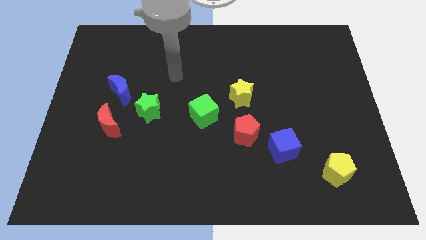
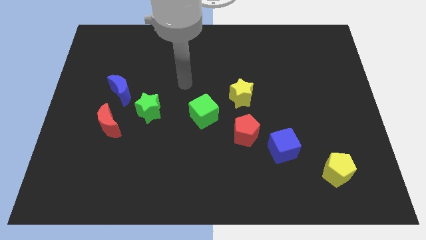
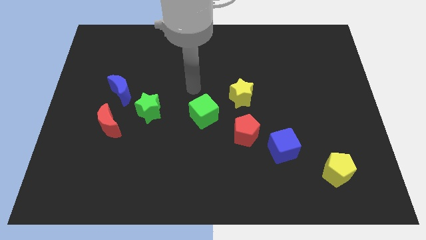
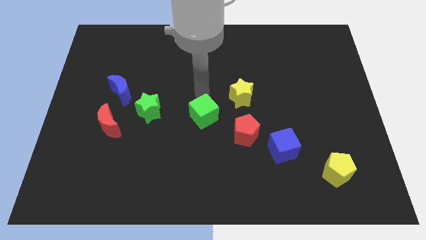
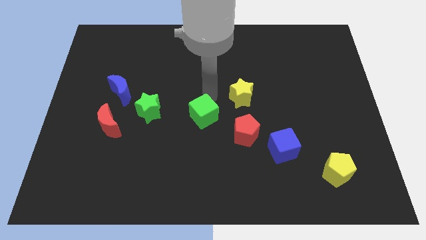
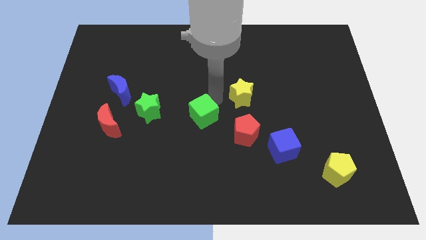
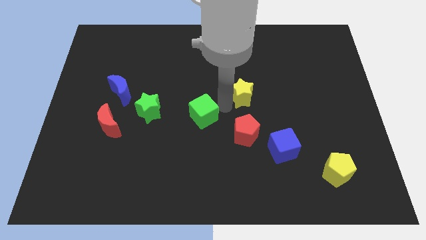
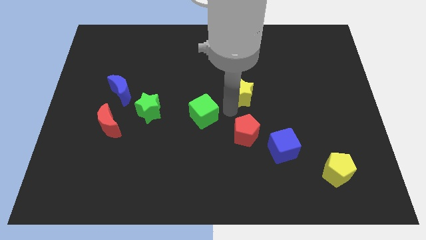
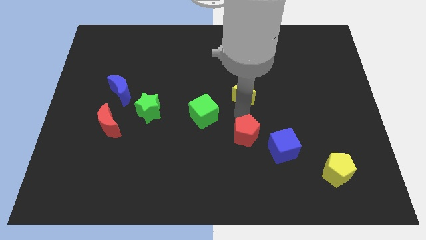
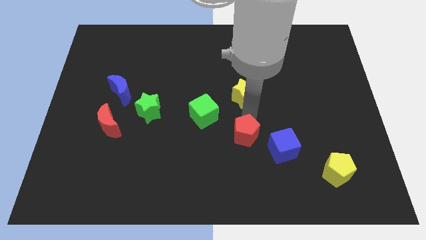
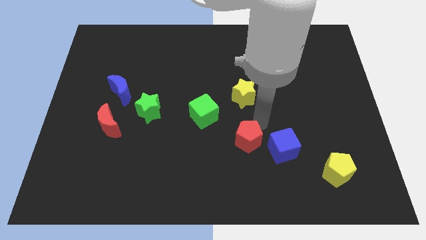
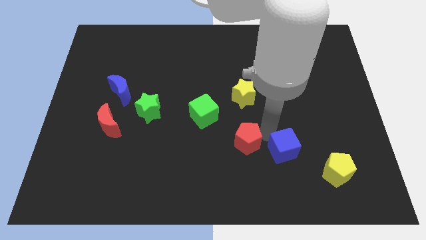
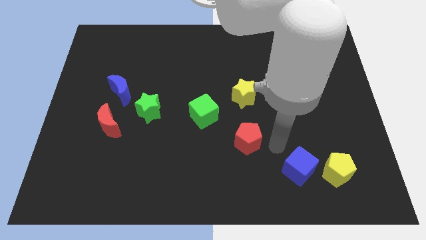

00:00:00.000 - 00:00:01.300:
move the red pentagon away from the blue cube

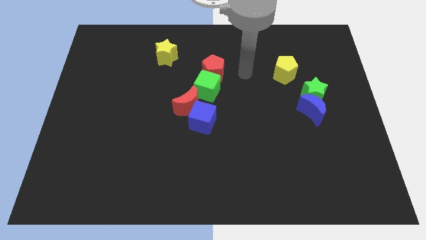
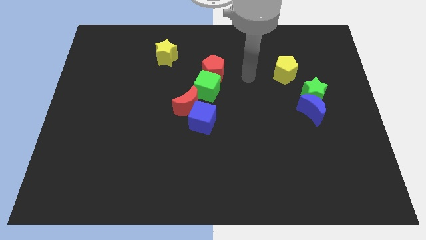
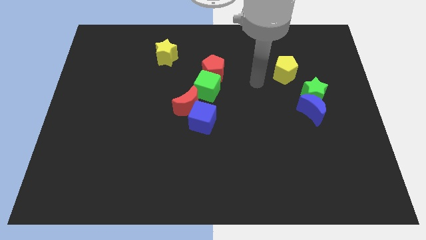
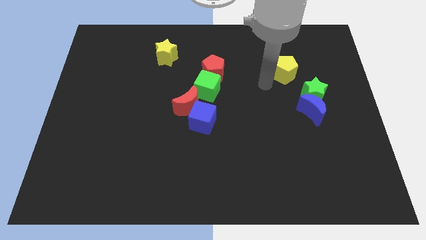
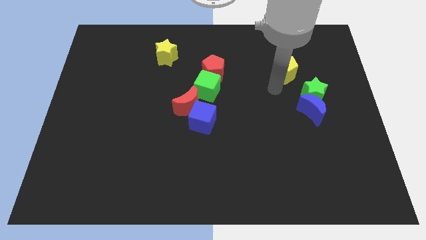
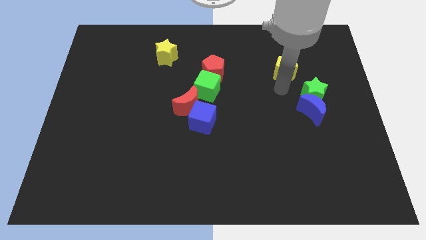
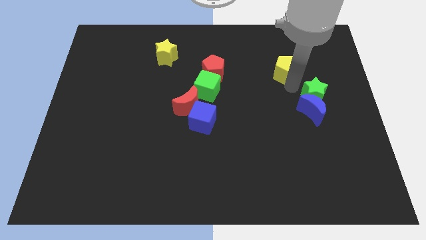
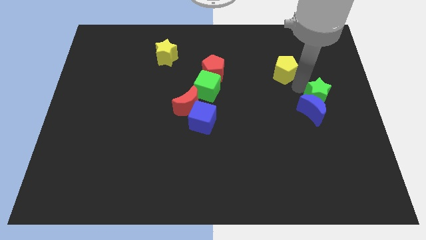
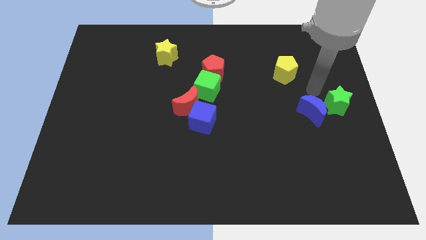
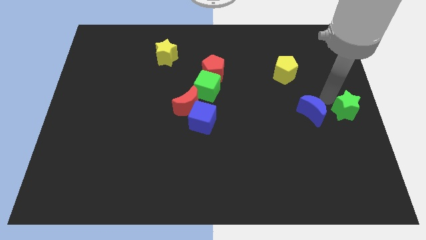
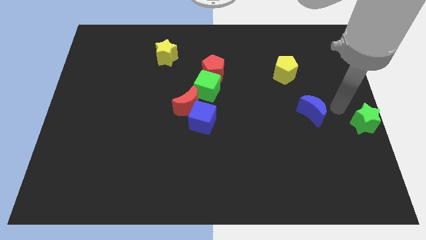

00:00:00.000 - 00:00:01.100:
separate the blue moon from the green star

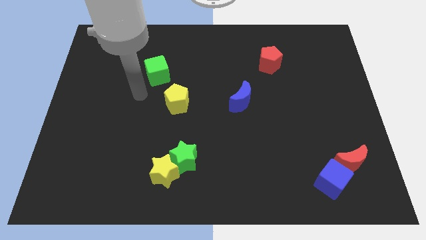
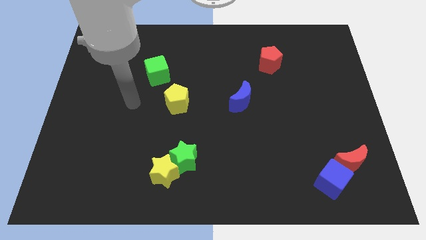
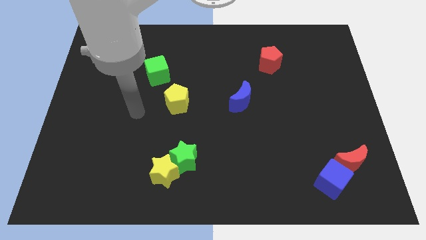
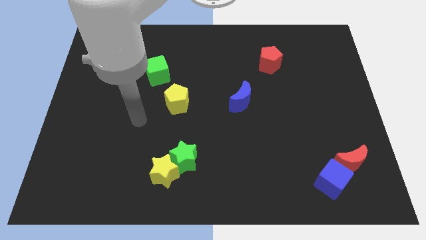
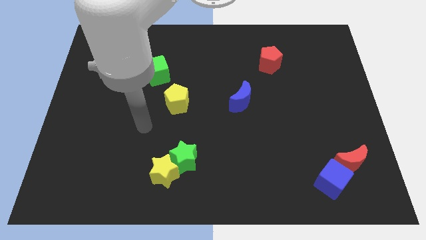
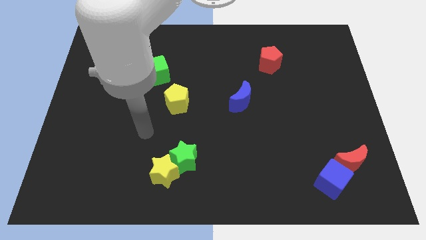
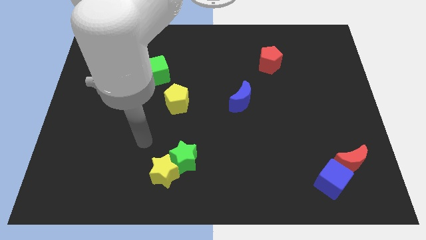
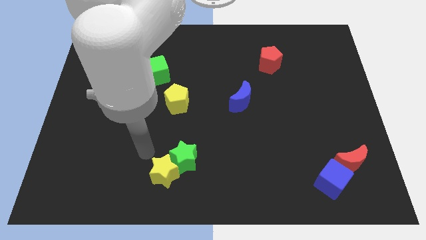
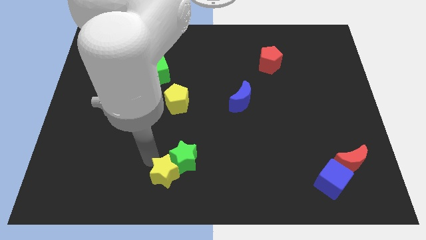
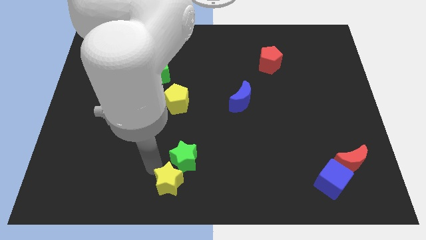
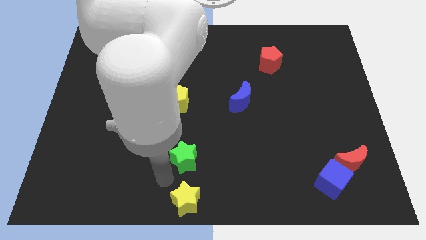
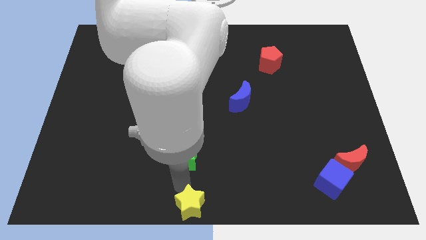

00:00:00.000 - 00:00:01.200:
move the green star away from the yellow star

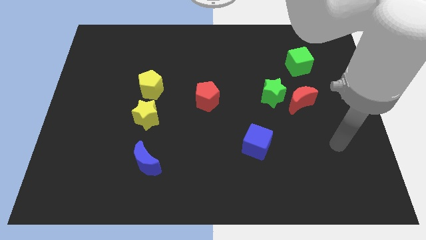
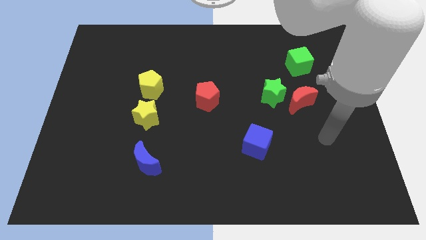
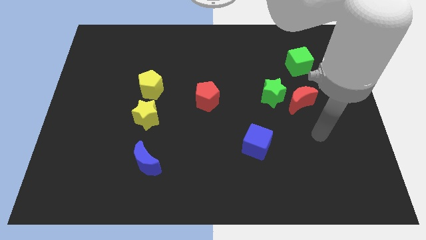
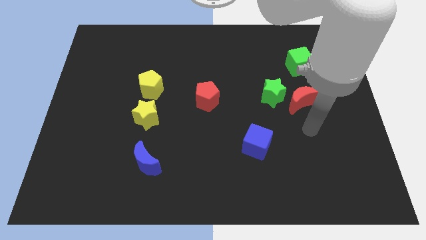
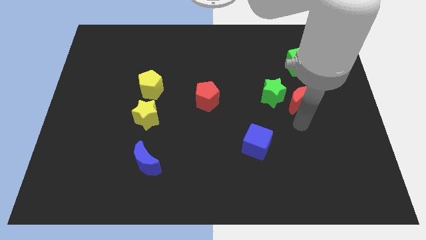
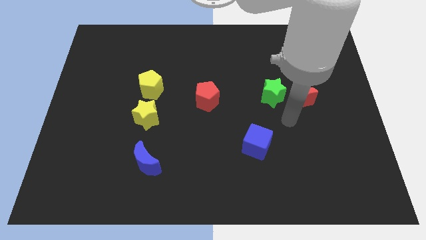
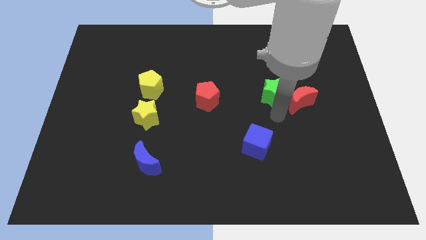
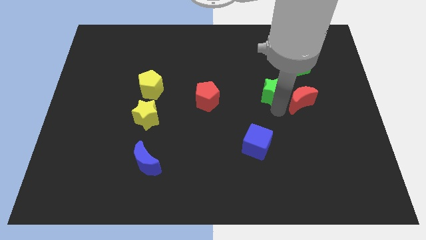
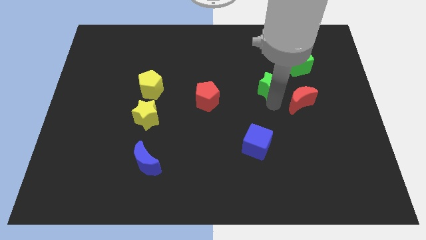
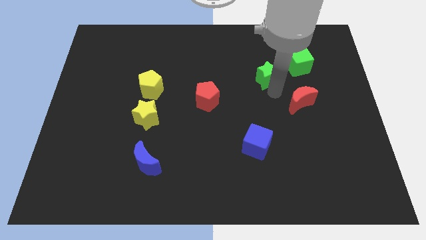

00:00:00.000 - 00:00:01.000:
move the red moon away from the green star

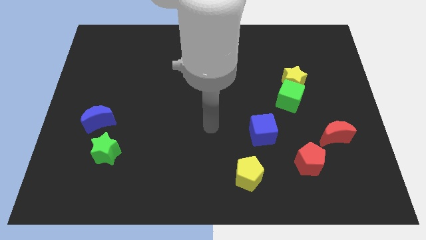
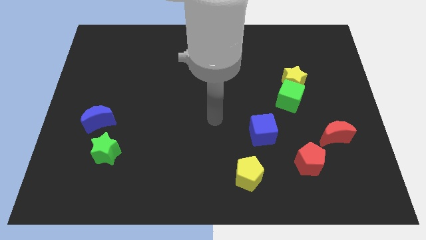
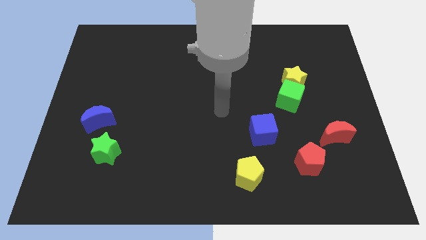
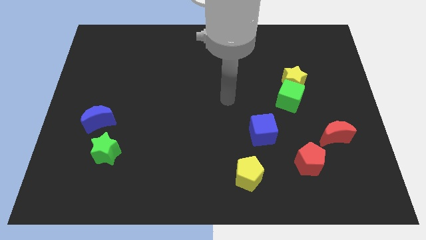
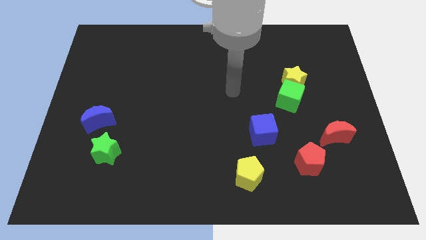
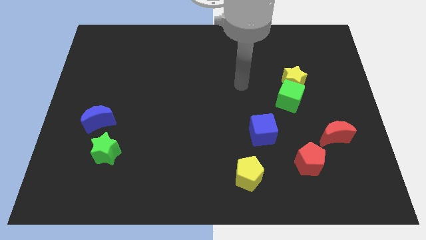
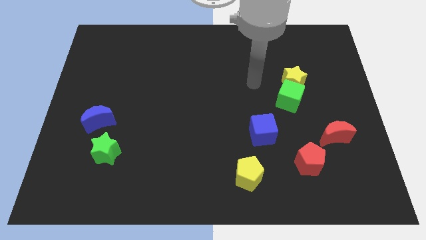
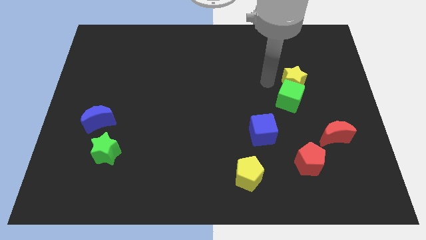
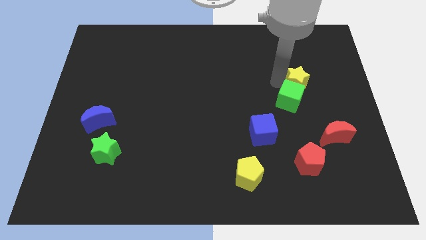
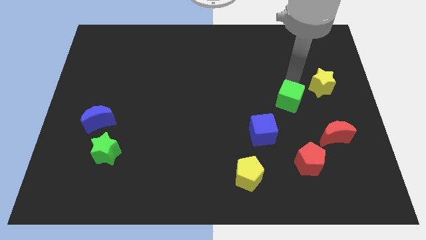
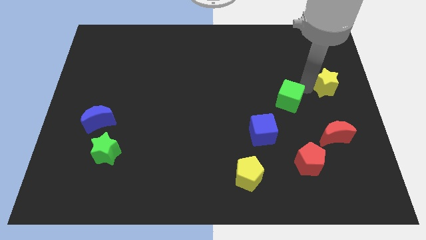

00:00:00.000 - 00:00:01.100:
move the green cube away from the yellow star

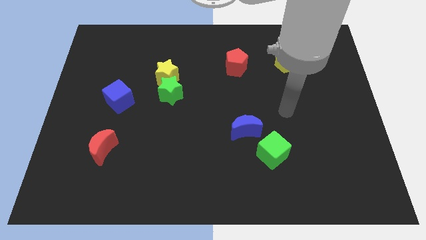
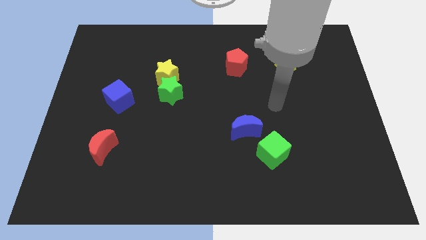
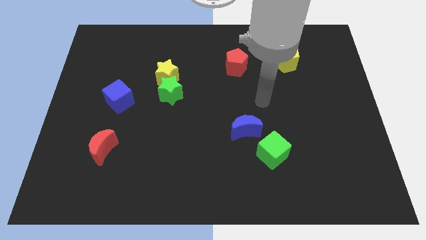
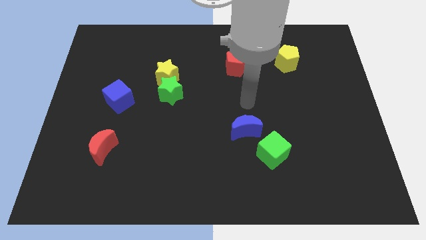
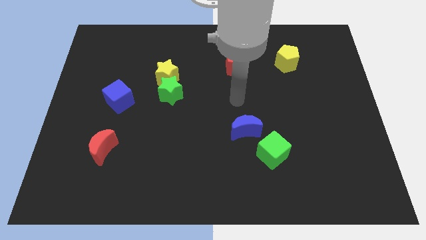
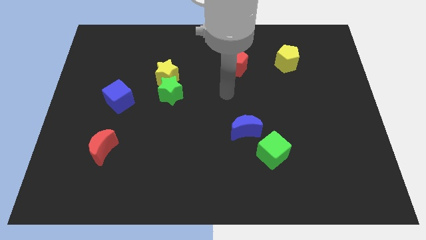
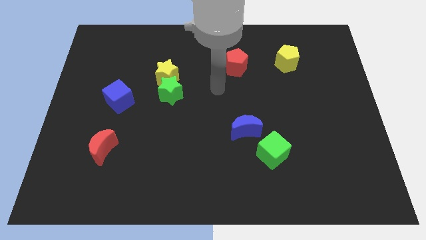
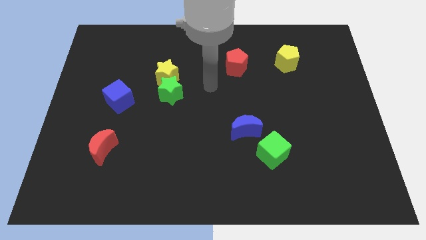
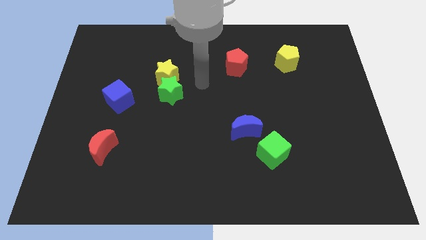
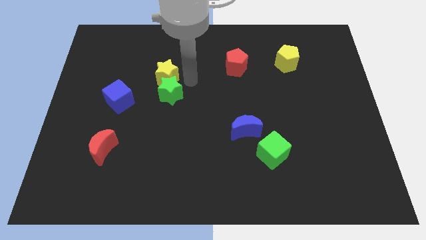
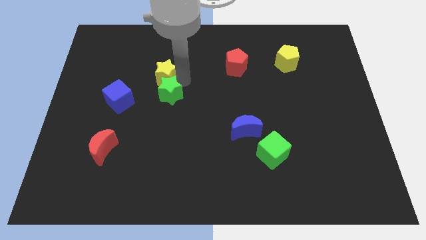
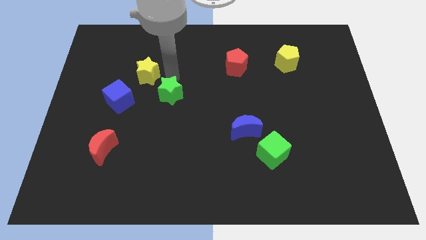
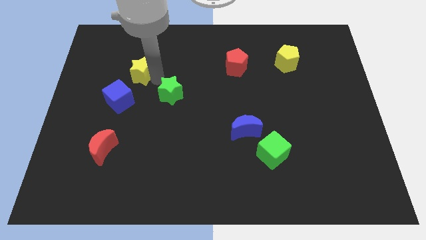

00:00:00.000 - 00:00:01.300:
separate the green star from the yellow star

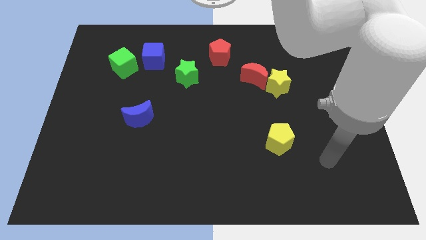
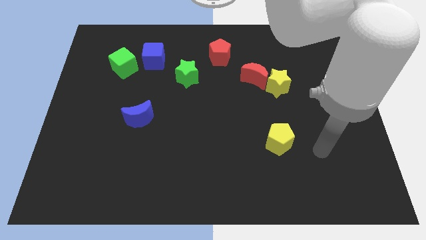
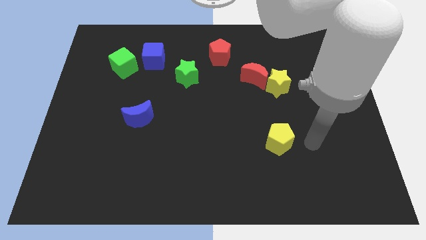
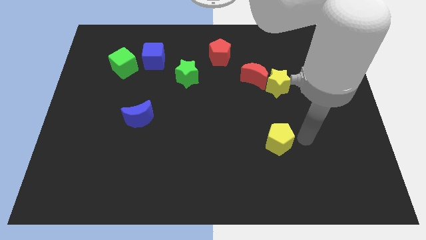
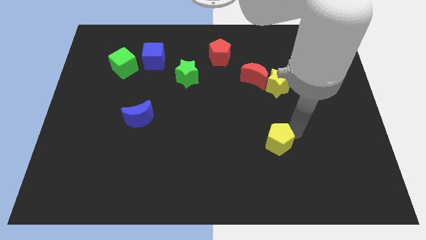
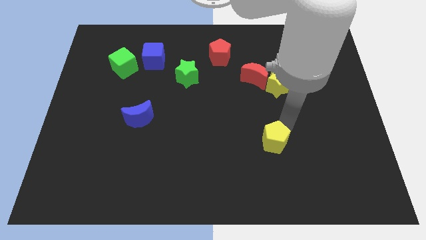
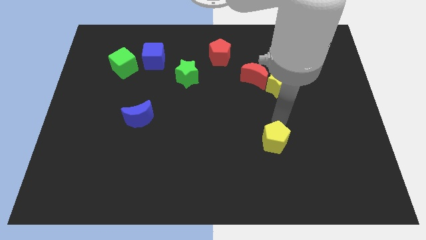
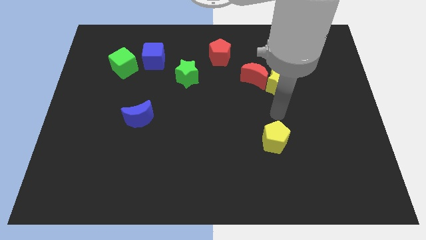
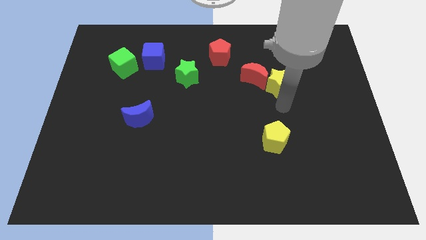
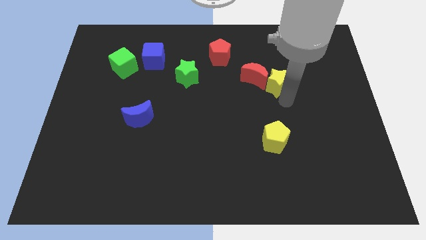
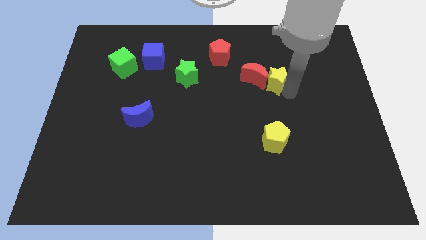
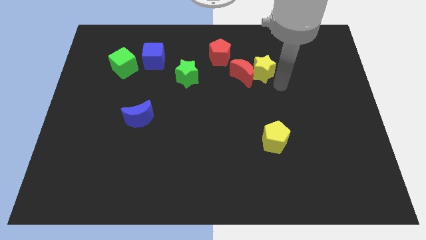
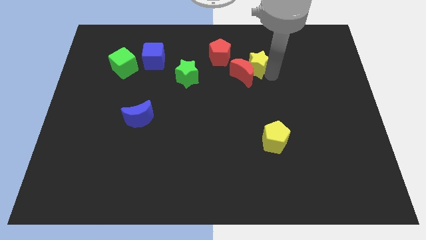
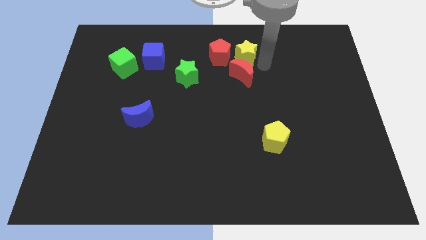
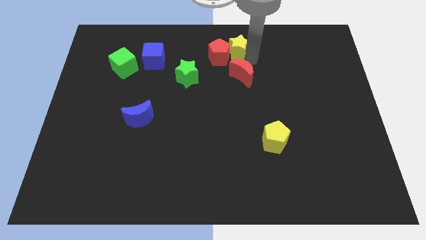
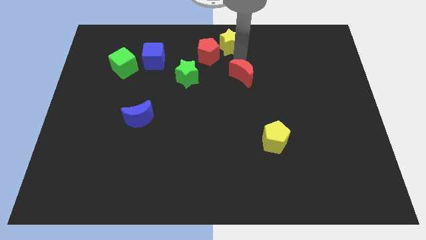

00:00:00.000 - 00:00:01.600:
pull the red moon apart from the yellow star

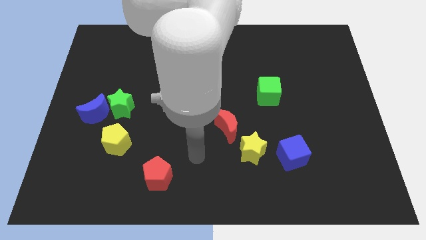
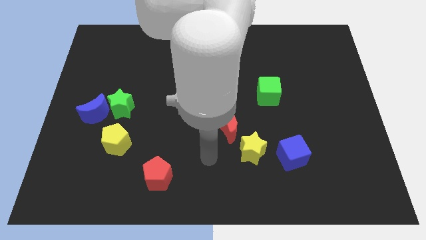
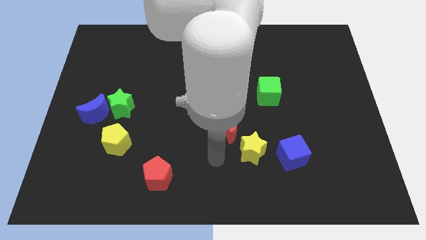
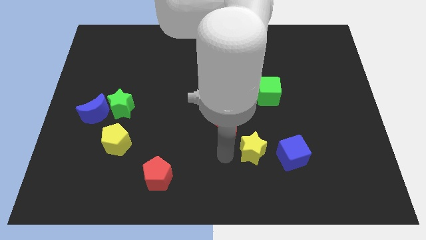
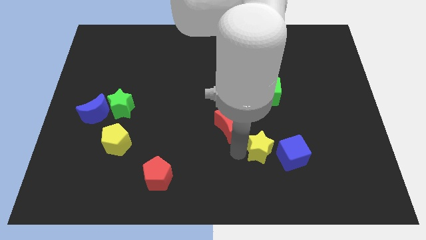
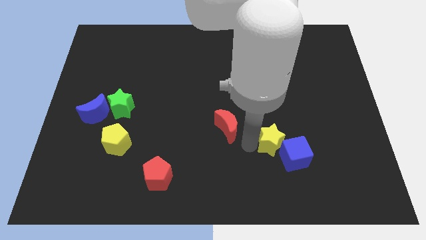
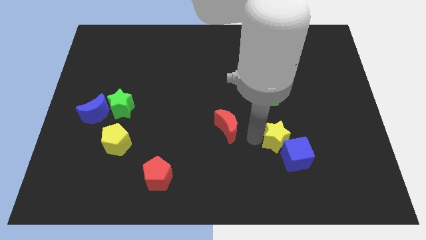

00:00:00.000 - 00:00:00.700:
move the red moon away from the yellow star
